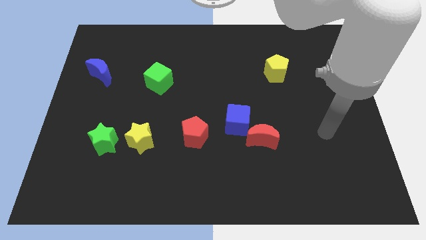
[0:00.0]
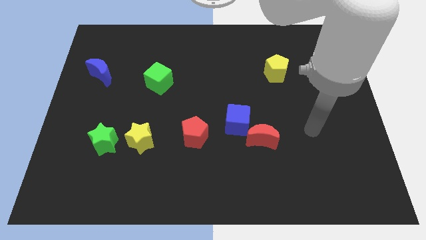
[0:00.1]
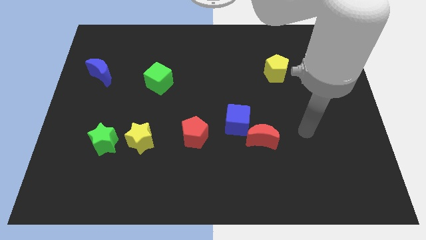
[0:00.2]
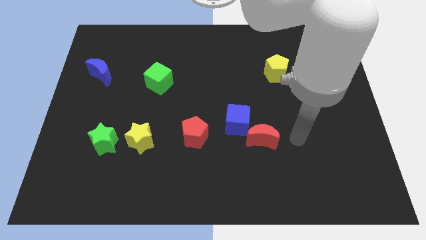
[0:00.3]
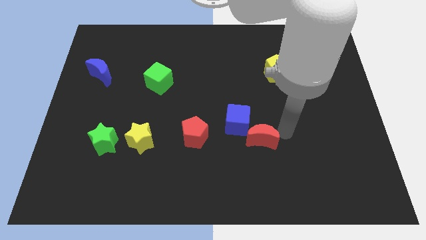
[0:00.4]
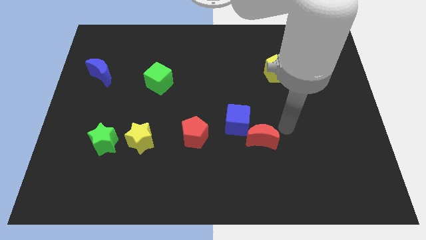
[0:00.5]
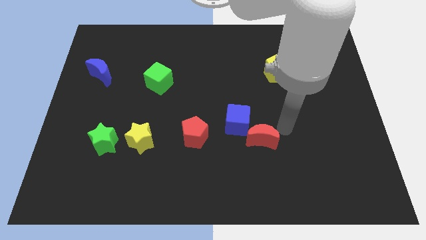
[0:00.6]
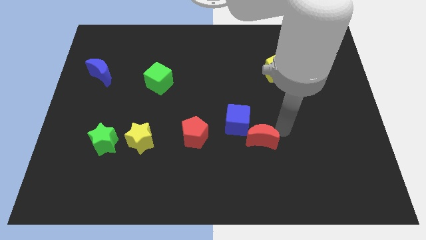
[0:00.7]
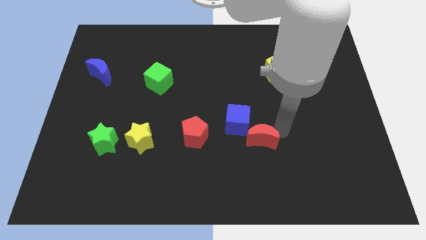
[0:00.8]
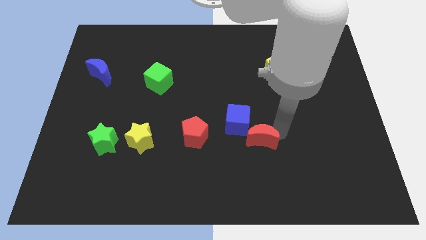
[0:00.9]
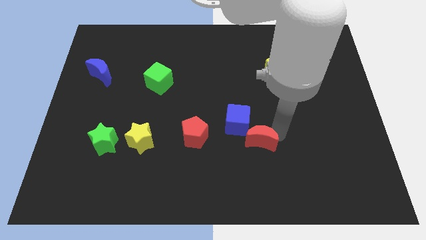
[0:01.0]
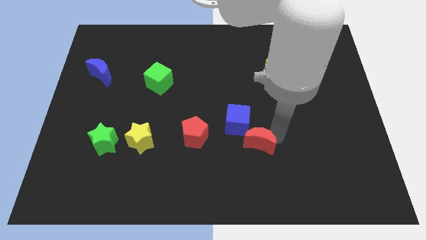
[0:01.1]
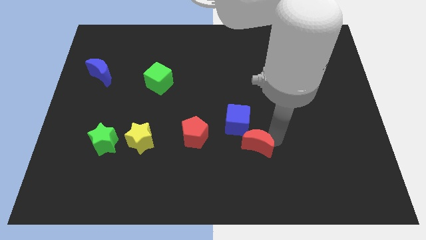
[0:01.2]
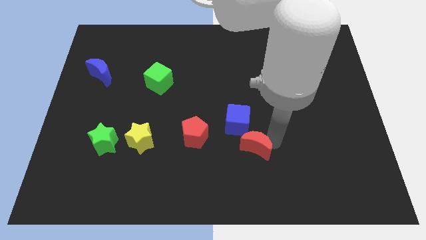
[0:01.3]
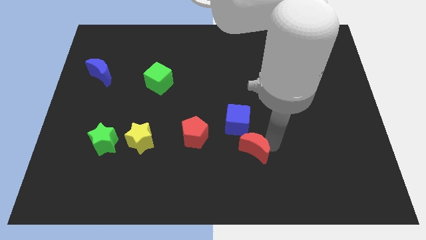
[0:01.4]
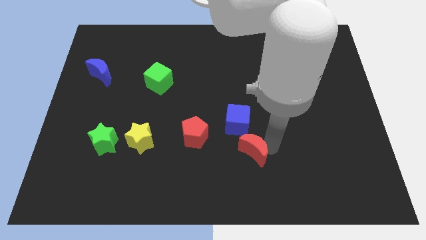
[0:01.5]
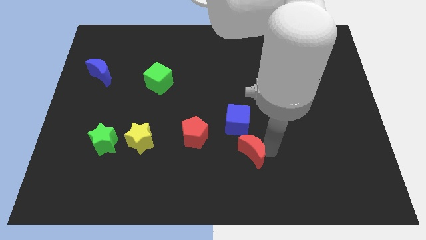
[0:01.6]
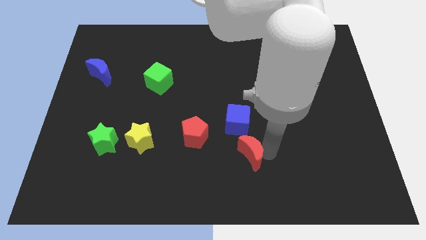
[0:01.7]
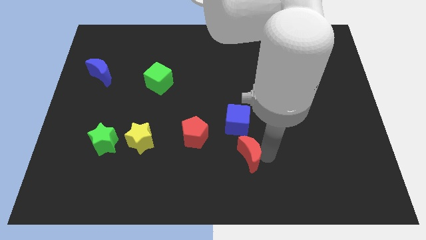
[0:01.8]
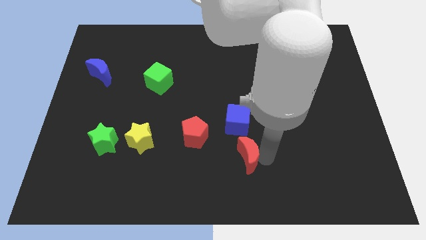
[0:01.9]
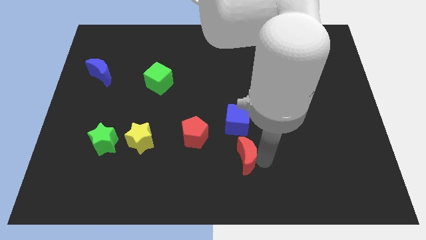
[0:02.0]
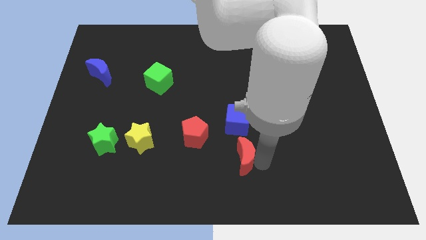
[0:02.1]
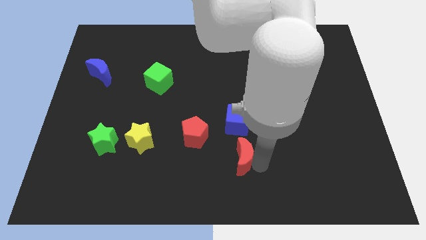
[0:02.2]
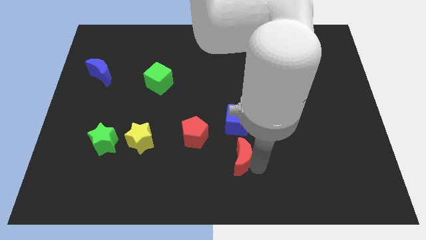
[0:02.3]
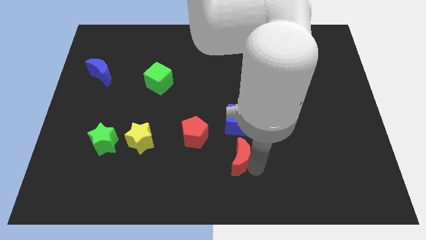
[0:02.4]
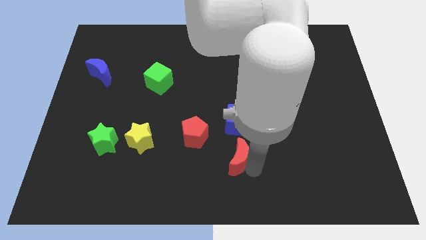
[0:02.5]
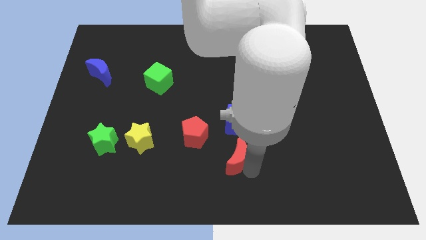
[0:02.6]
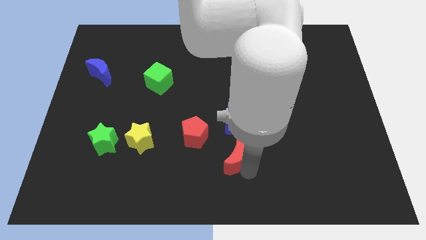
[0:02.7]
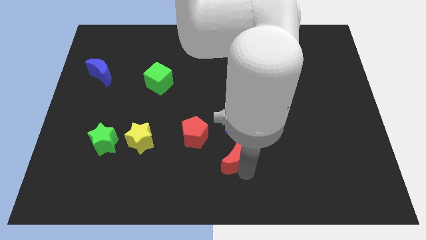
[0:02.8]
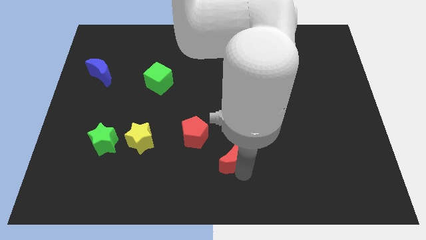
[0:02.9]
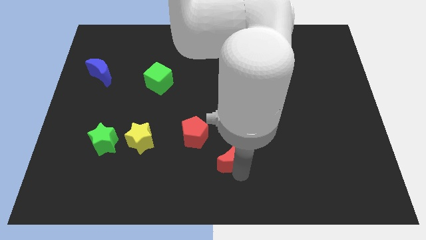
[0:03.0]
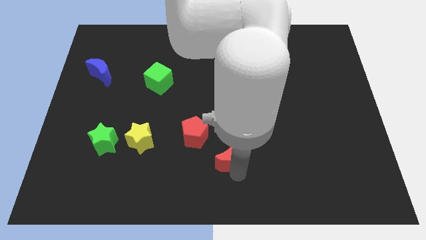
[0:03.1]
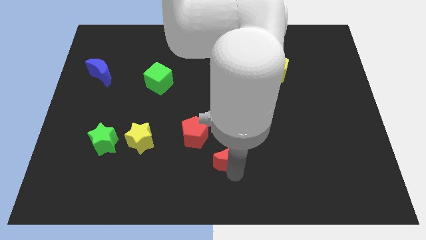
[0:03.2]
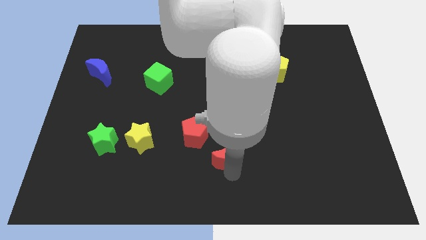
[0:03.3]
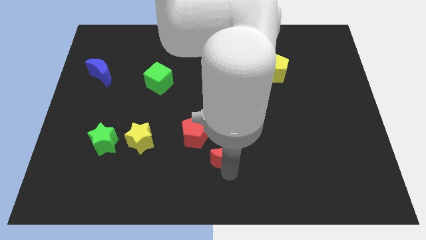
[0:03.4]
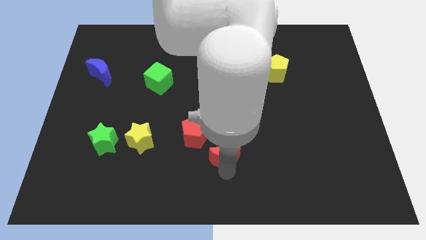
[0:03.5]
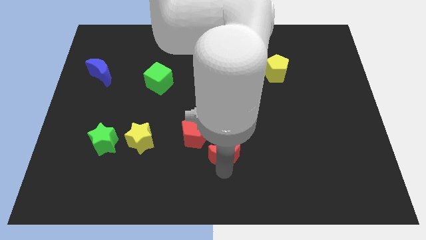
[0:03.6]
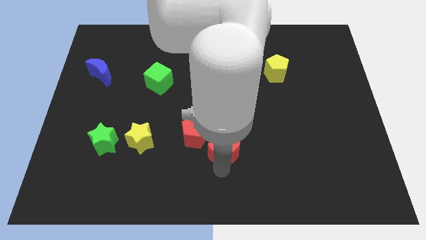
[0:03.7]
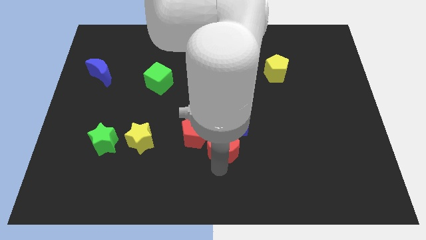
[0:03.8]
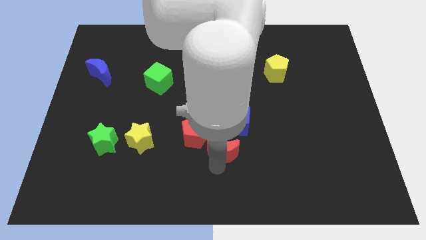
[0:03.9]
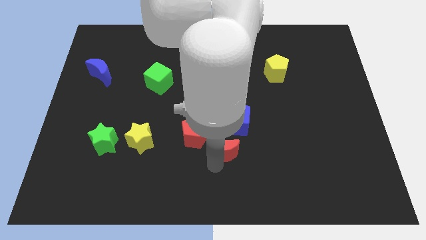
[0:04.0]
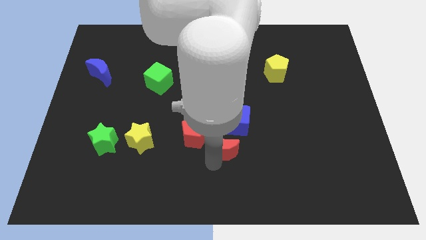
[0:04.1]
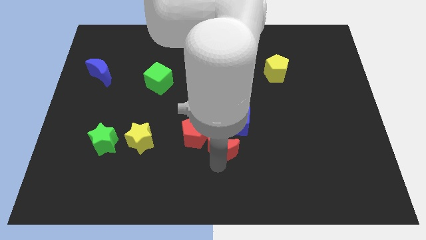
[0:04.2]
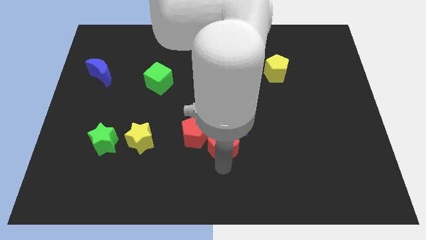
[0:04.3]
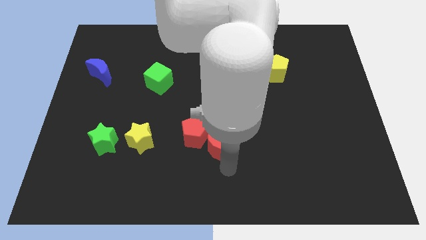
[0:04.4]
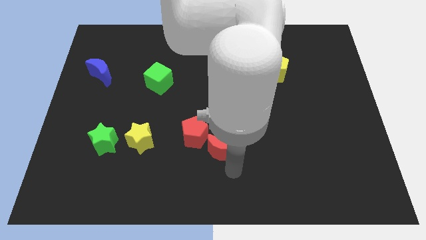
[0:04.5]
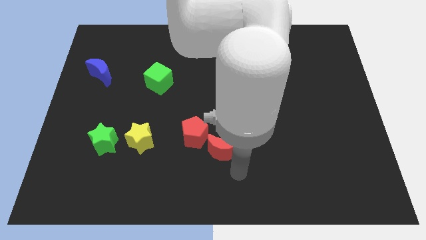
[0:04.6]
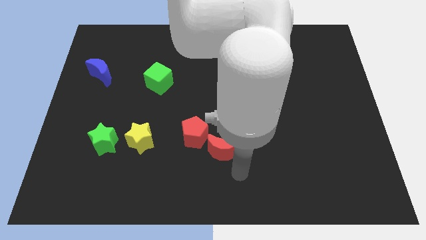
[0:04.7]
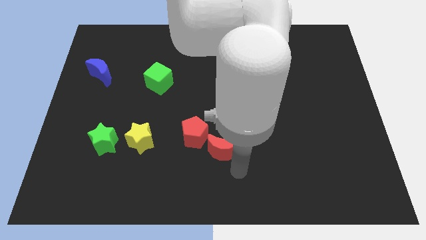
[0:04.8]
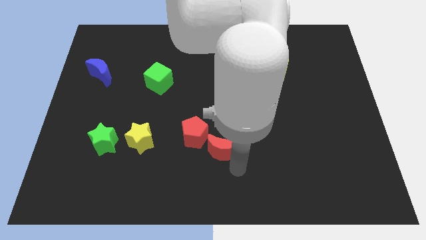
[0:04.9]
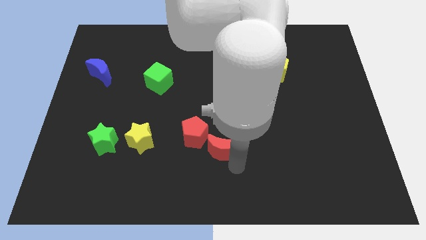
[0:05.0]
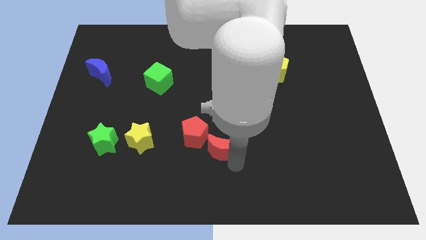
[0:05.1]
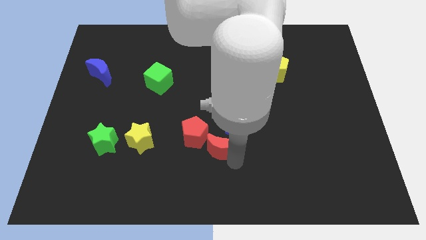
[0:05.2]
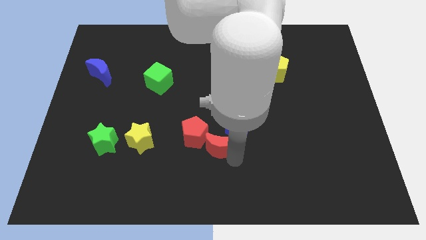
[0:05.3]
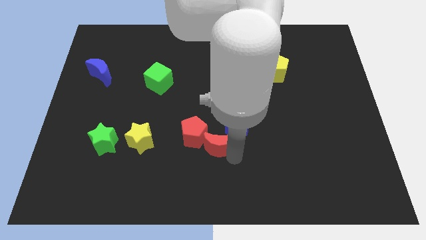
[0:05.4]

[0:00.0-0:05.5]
move the red moon close to the red pentagon

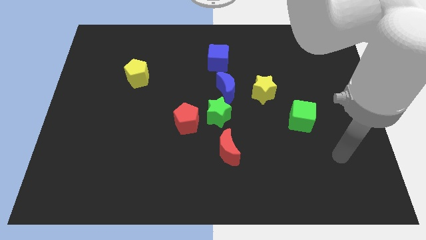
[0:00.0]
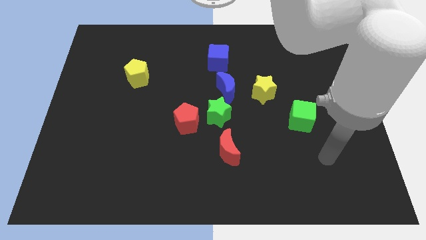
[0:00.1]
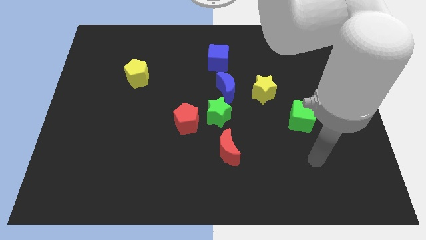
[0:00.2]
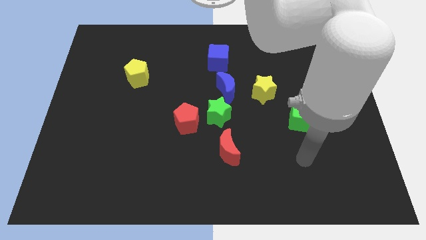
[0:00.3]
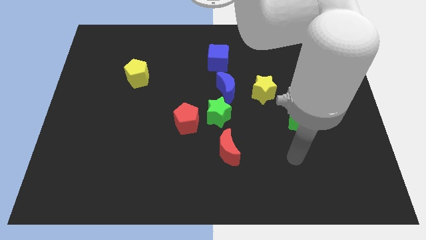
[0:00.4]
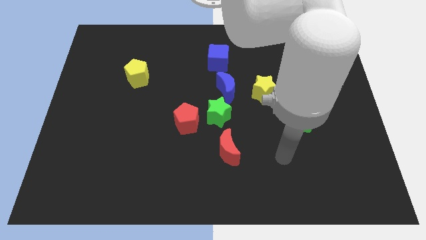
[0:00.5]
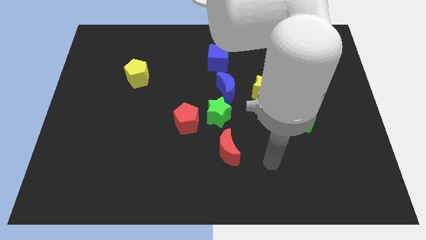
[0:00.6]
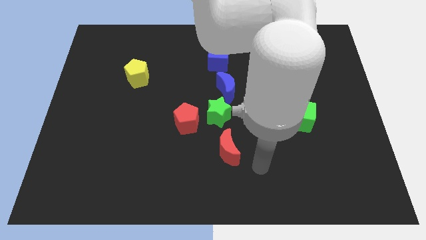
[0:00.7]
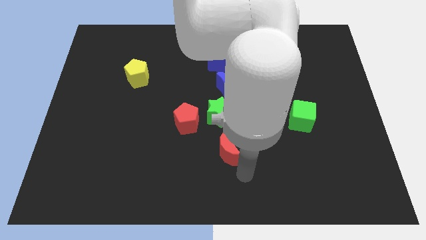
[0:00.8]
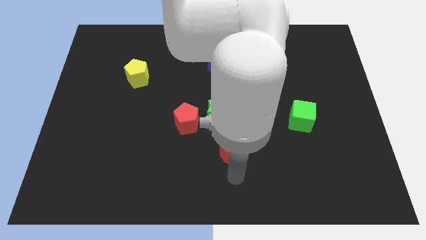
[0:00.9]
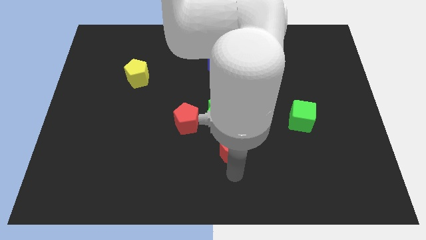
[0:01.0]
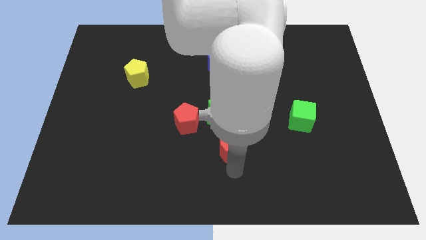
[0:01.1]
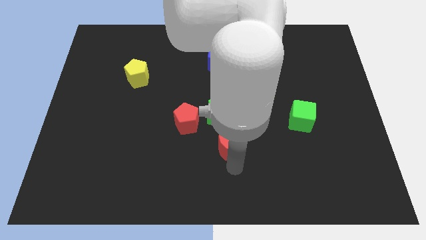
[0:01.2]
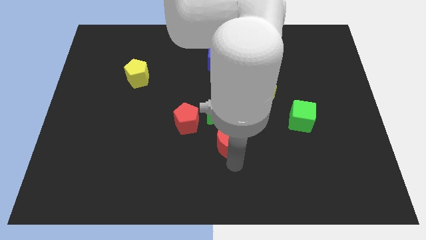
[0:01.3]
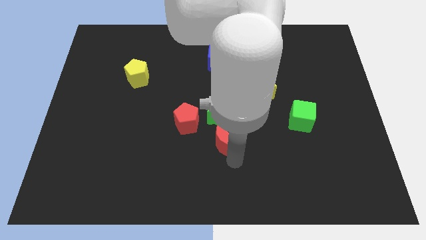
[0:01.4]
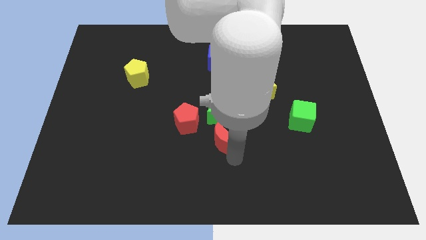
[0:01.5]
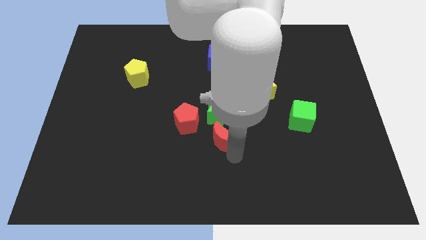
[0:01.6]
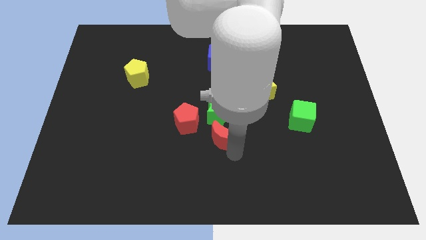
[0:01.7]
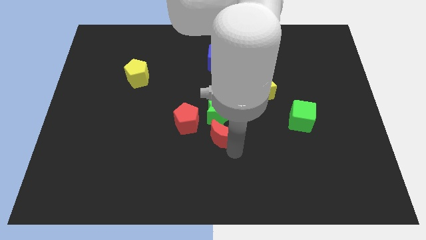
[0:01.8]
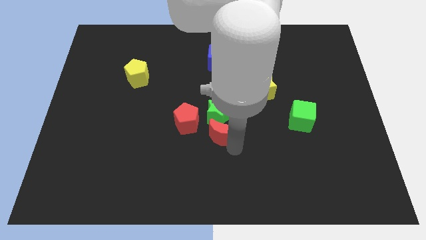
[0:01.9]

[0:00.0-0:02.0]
put the red moon next to the green star
